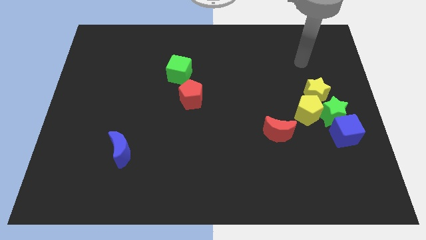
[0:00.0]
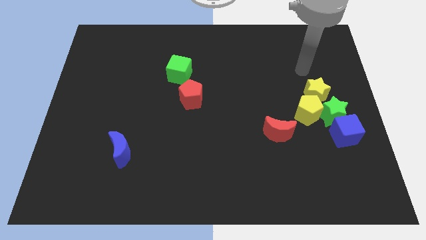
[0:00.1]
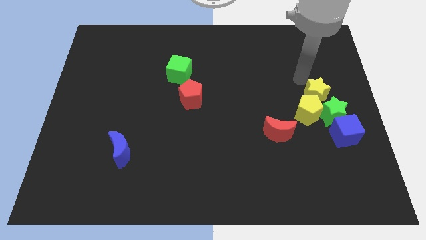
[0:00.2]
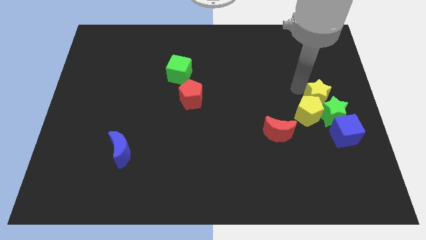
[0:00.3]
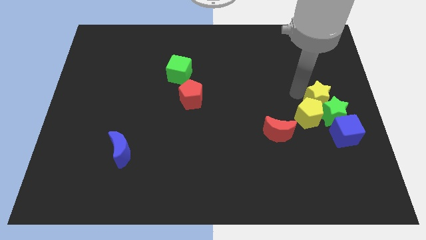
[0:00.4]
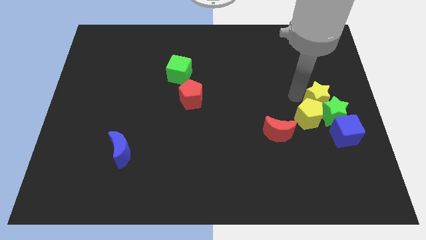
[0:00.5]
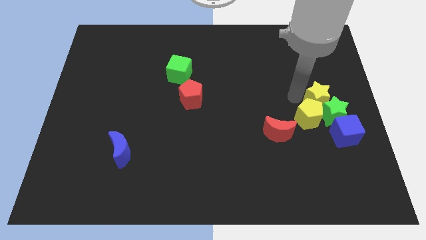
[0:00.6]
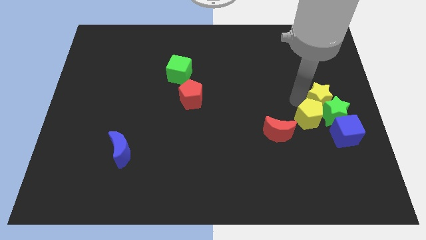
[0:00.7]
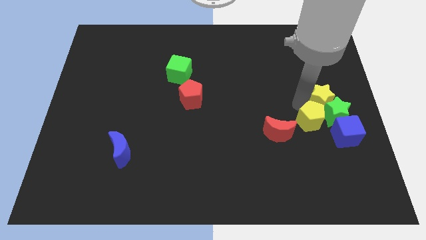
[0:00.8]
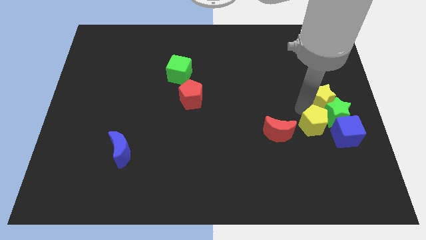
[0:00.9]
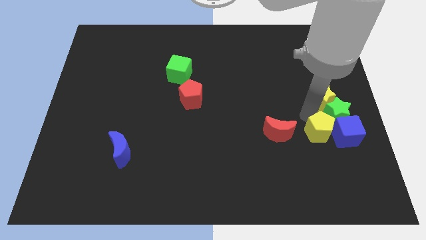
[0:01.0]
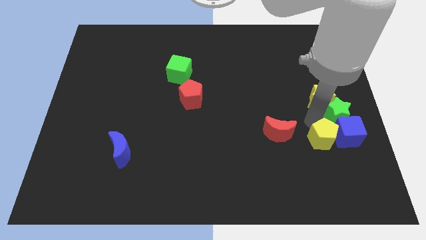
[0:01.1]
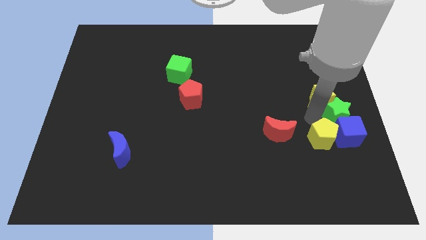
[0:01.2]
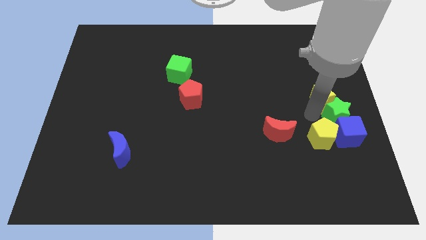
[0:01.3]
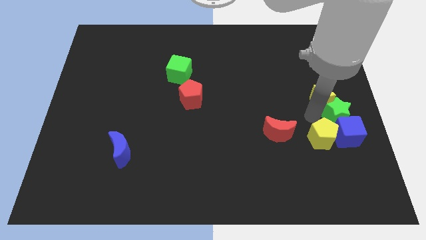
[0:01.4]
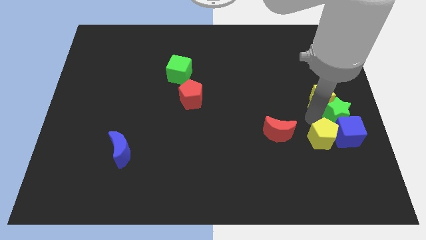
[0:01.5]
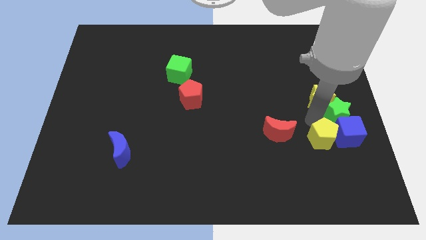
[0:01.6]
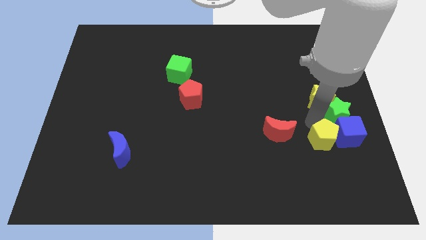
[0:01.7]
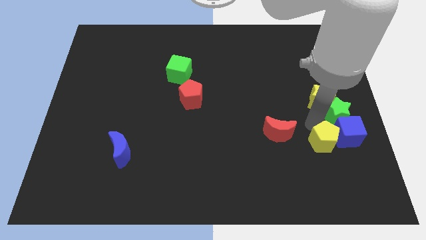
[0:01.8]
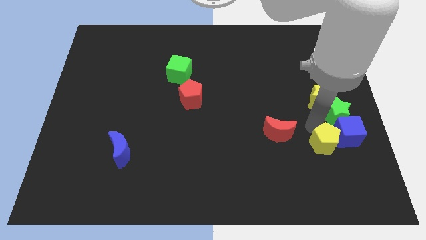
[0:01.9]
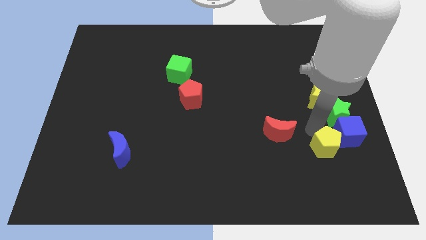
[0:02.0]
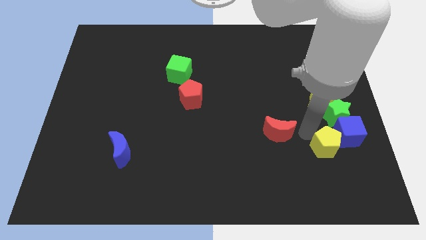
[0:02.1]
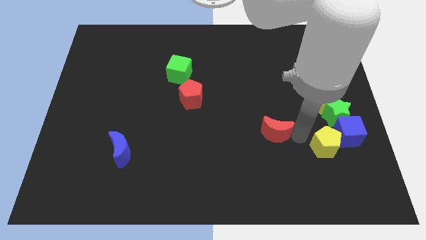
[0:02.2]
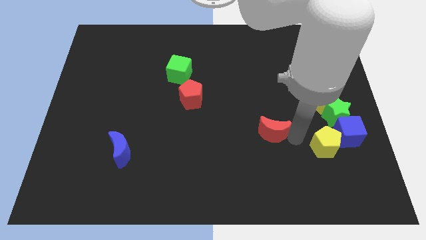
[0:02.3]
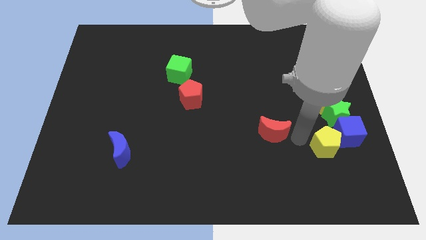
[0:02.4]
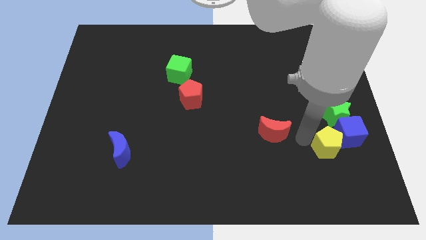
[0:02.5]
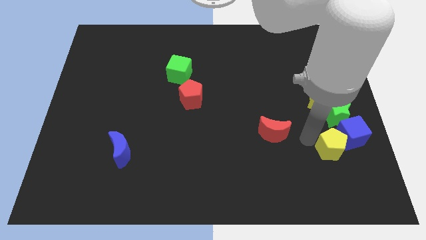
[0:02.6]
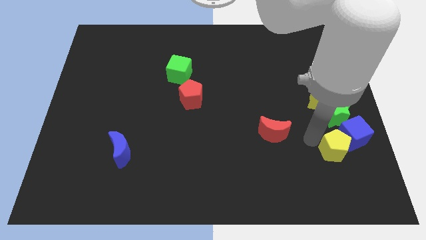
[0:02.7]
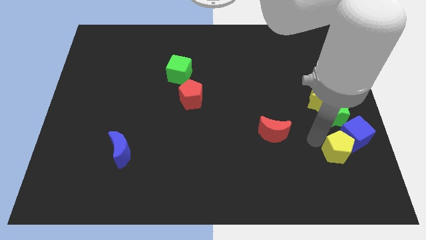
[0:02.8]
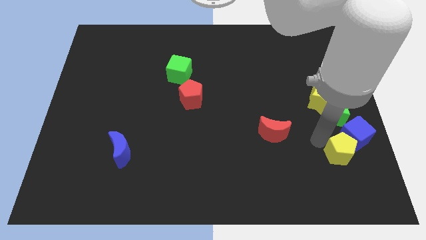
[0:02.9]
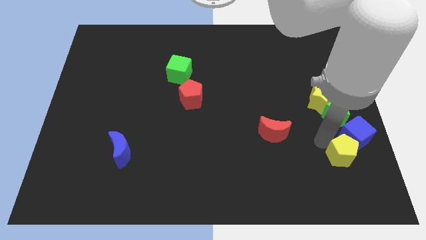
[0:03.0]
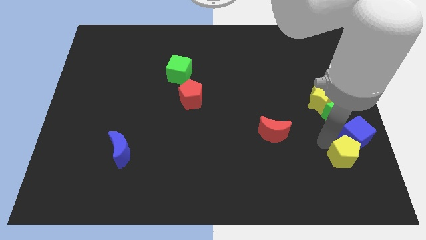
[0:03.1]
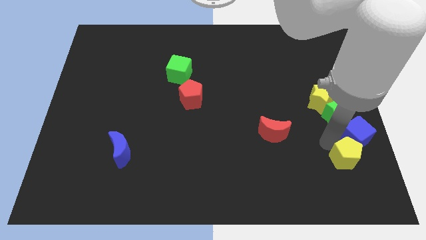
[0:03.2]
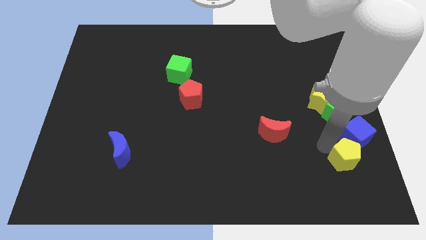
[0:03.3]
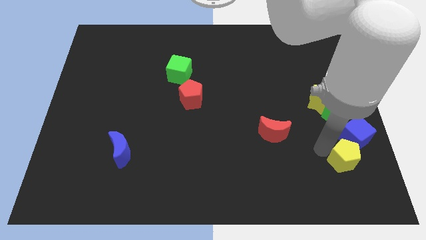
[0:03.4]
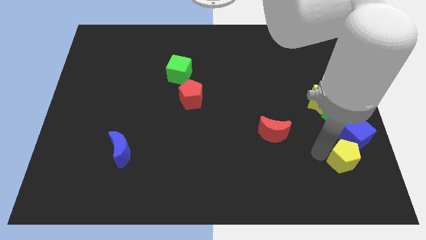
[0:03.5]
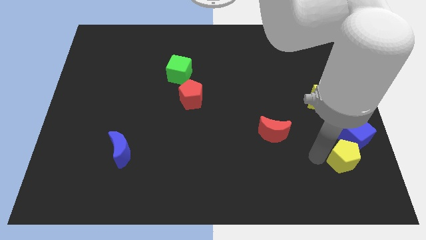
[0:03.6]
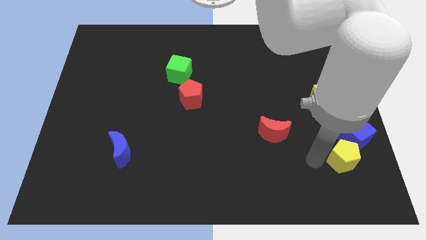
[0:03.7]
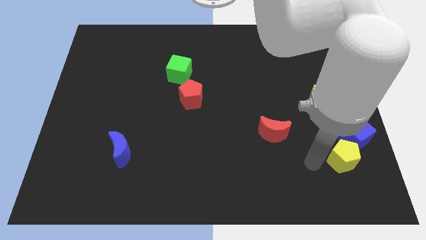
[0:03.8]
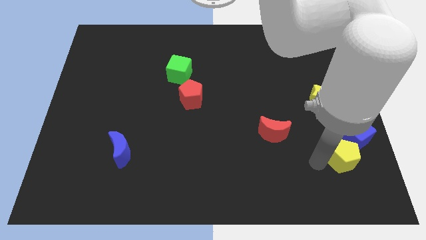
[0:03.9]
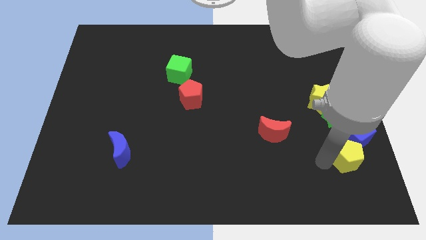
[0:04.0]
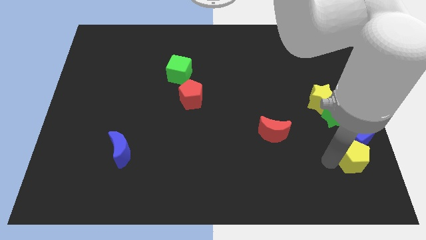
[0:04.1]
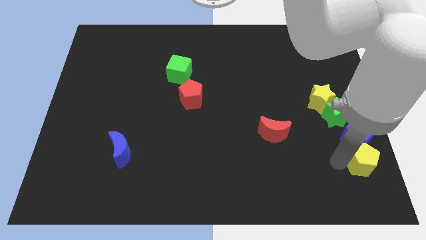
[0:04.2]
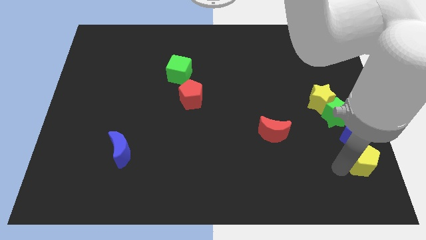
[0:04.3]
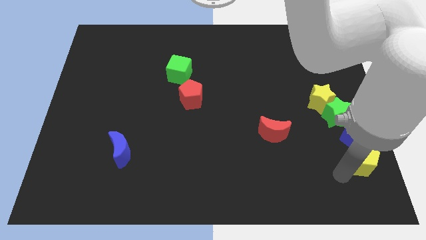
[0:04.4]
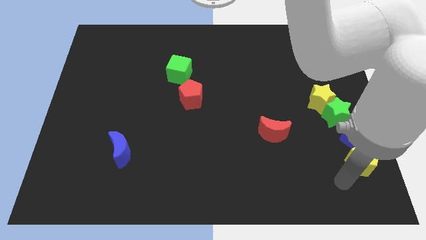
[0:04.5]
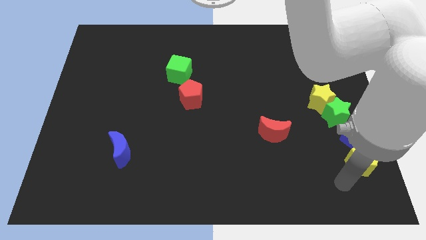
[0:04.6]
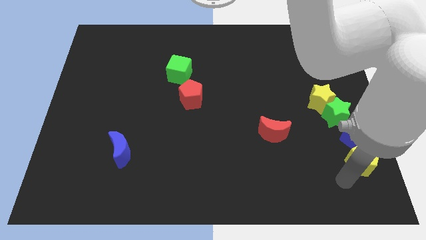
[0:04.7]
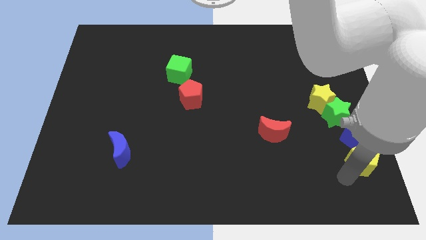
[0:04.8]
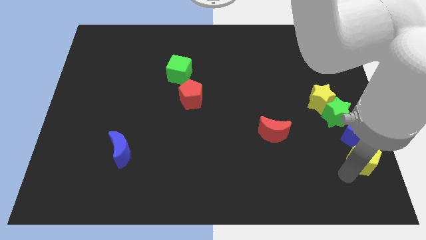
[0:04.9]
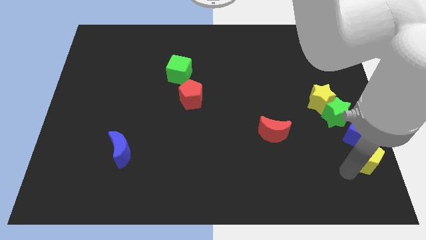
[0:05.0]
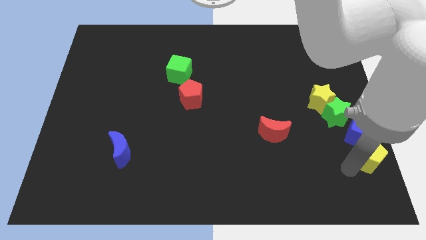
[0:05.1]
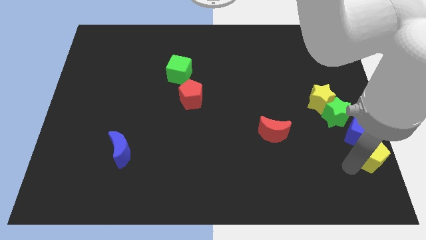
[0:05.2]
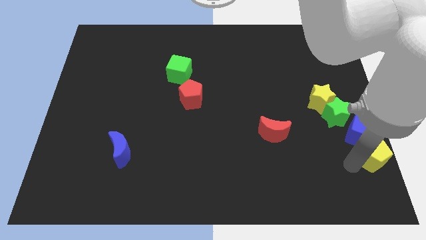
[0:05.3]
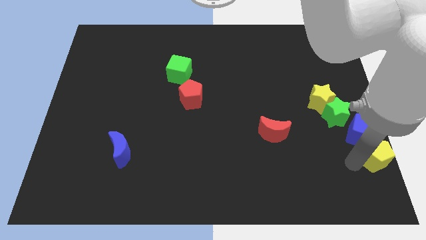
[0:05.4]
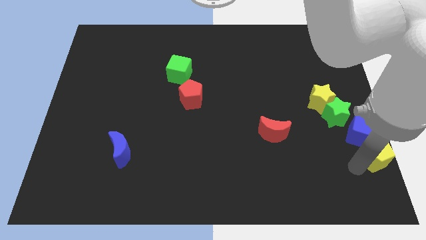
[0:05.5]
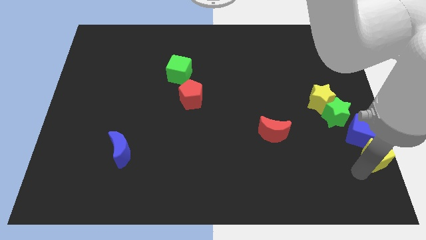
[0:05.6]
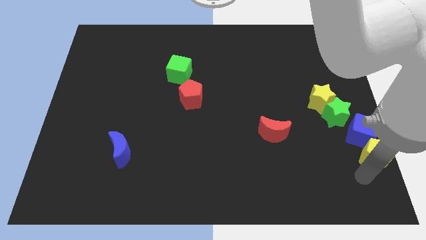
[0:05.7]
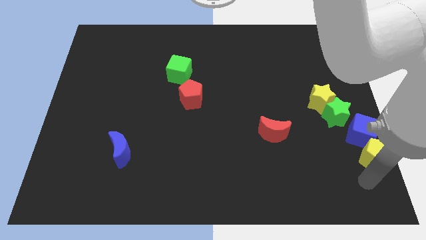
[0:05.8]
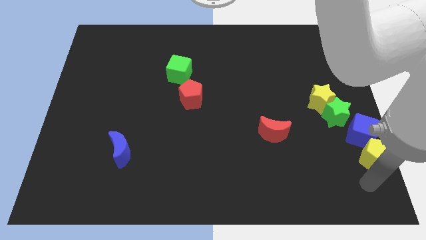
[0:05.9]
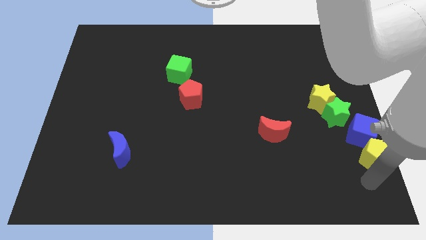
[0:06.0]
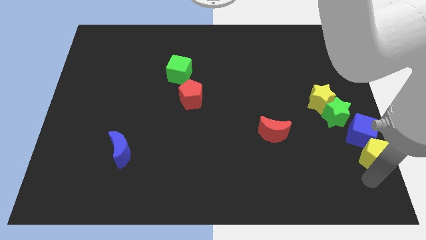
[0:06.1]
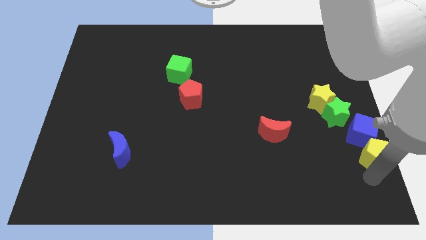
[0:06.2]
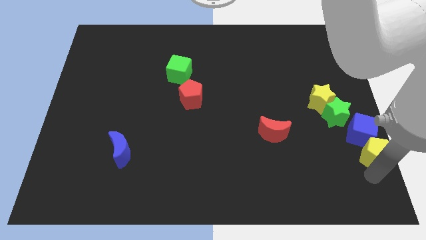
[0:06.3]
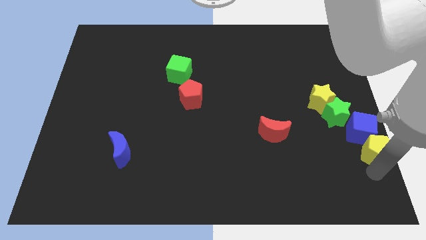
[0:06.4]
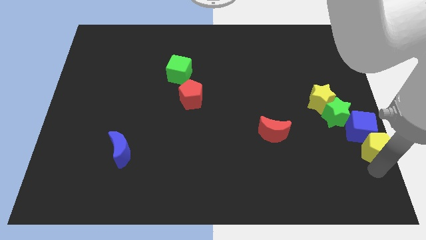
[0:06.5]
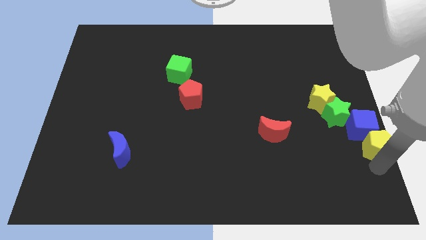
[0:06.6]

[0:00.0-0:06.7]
put the yellow pentagon to the right side

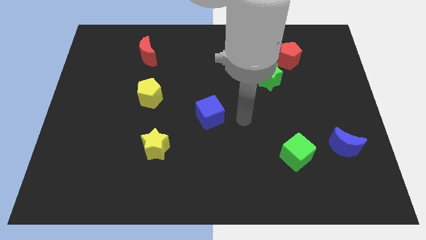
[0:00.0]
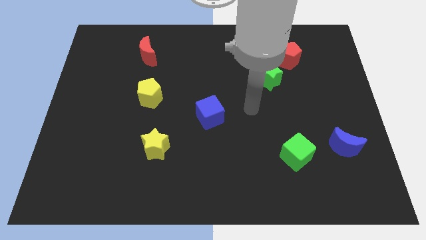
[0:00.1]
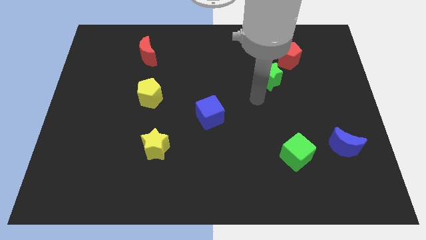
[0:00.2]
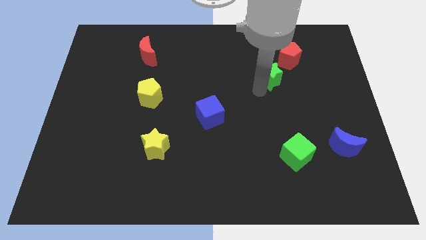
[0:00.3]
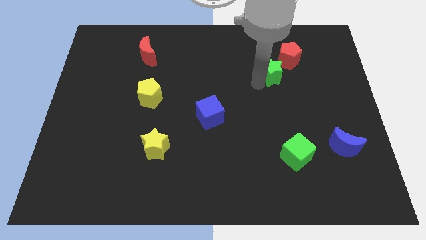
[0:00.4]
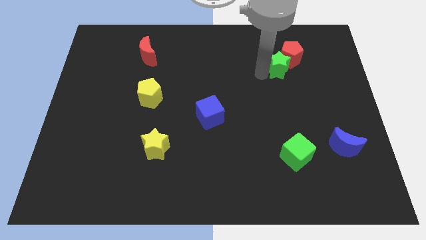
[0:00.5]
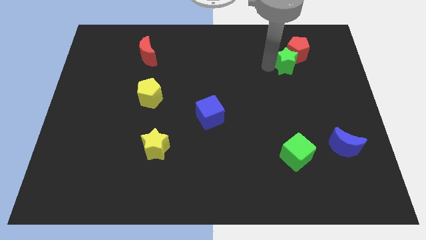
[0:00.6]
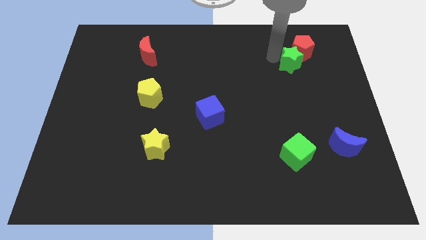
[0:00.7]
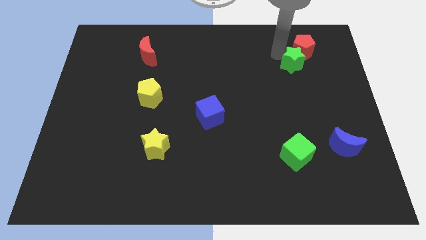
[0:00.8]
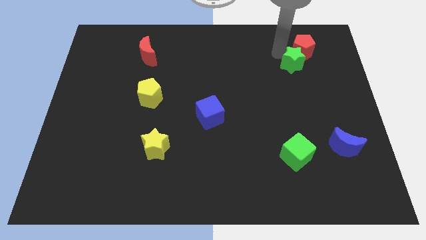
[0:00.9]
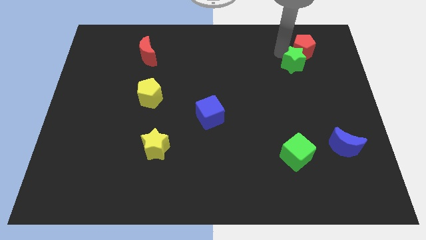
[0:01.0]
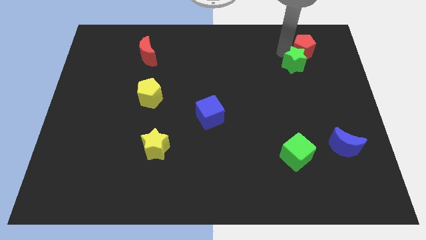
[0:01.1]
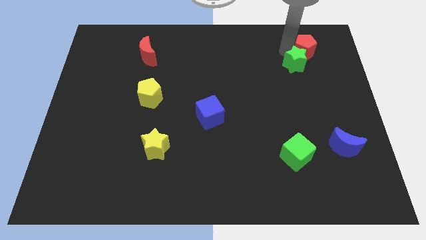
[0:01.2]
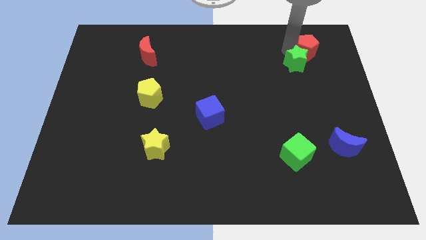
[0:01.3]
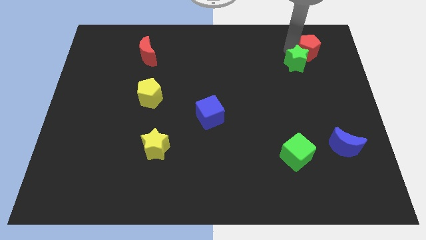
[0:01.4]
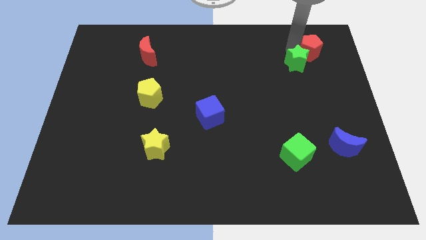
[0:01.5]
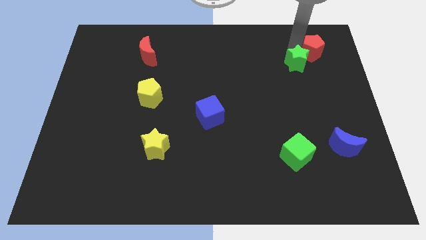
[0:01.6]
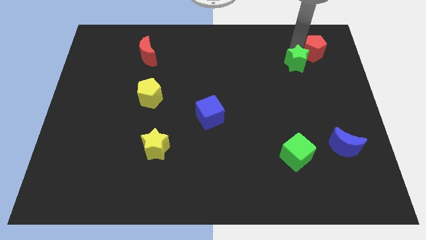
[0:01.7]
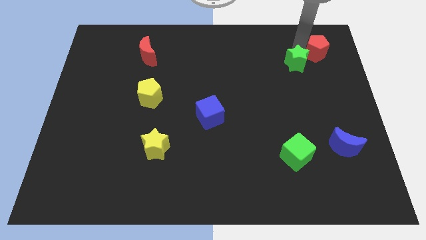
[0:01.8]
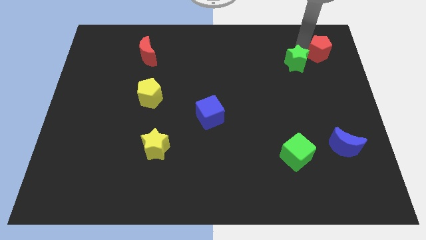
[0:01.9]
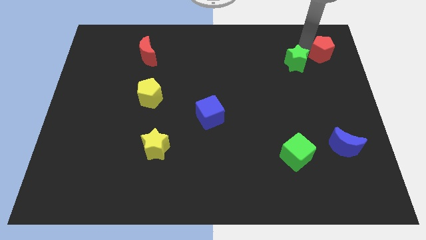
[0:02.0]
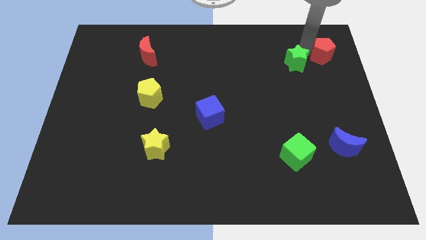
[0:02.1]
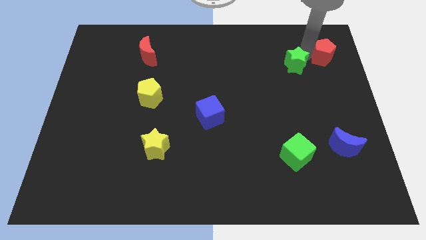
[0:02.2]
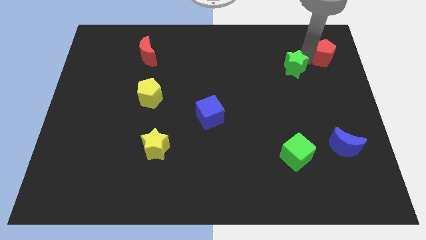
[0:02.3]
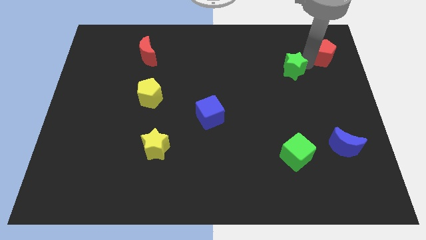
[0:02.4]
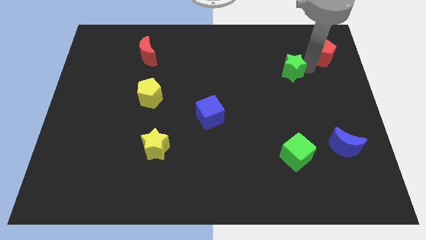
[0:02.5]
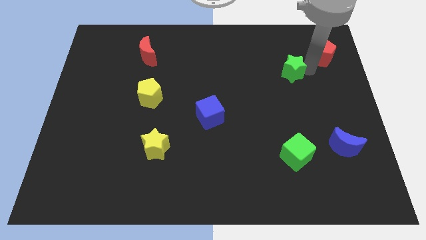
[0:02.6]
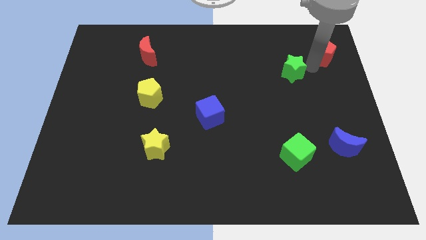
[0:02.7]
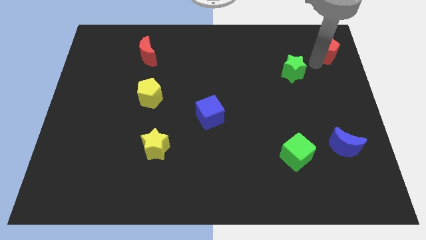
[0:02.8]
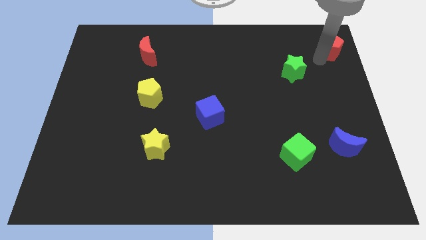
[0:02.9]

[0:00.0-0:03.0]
slide the red pentagon to the top right
